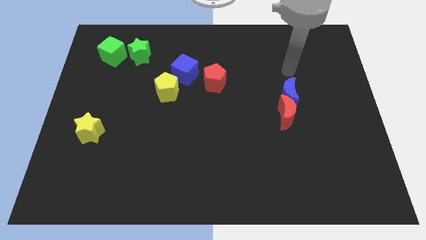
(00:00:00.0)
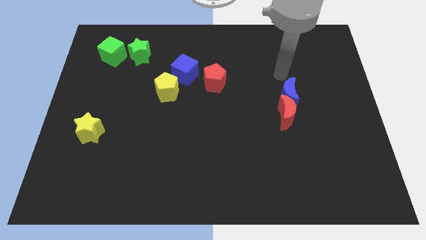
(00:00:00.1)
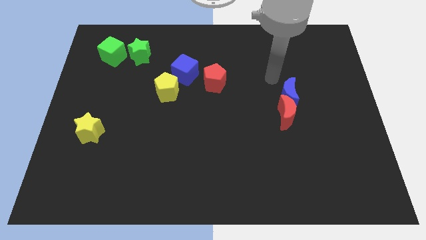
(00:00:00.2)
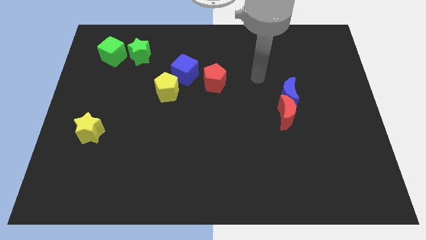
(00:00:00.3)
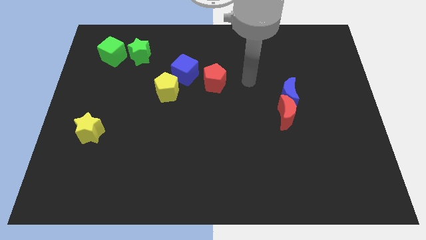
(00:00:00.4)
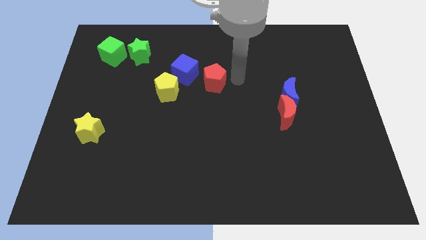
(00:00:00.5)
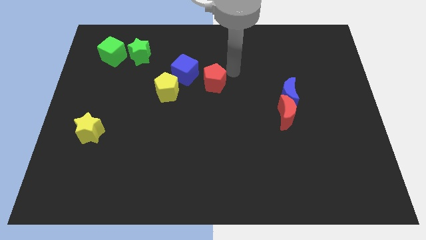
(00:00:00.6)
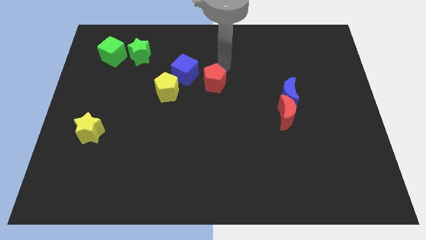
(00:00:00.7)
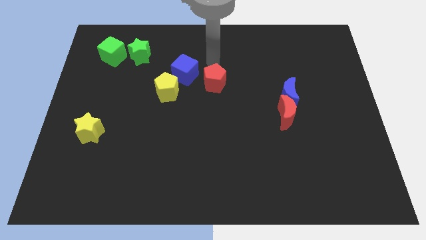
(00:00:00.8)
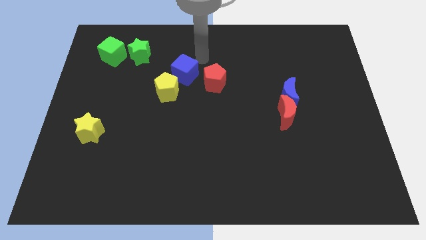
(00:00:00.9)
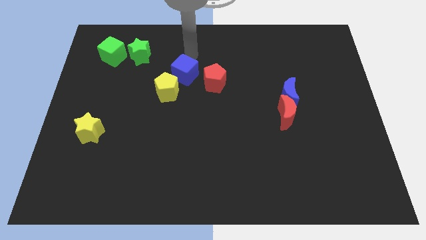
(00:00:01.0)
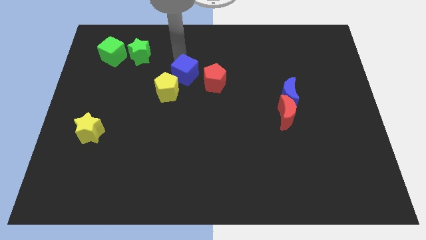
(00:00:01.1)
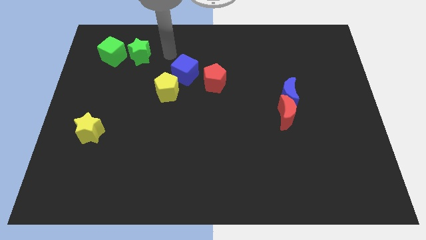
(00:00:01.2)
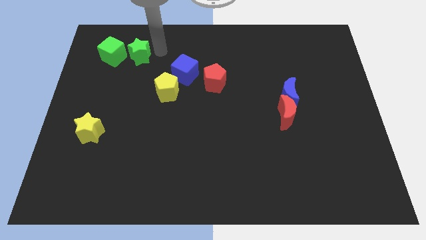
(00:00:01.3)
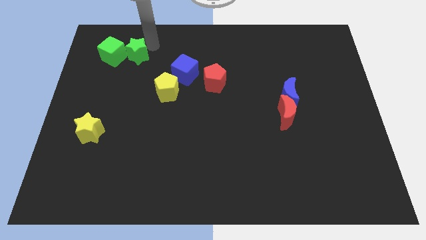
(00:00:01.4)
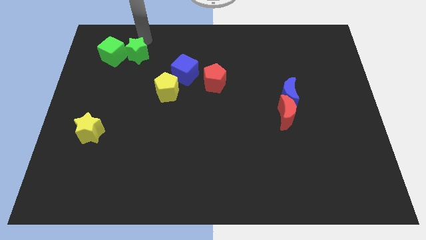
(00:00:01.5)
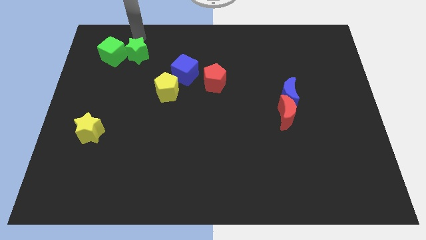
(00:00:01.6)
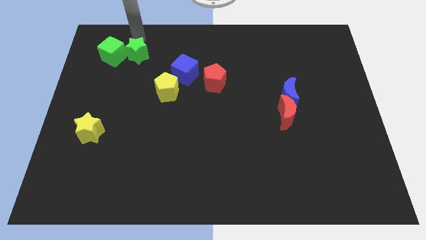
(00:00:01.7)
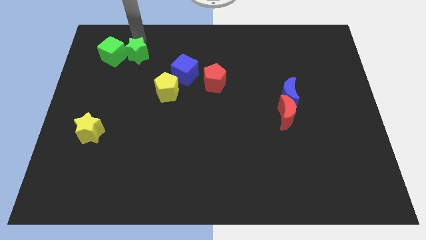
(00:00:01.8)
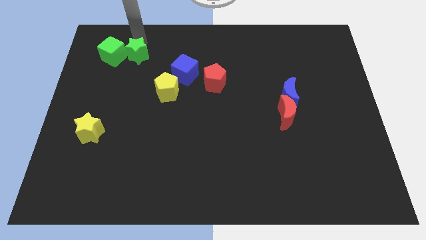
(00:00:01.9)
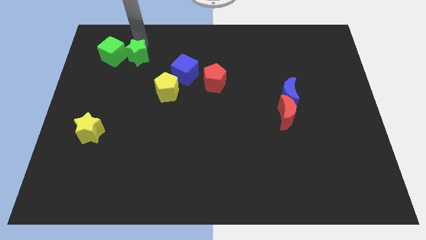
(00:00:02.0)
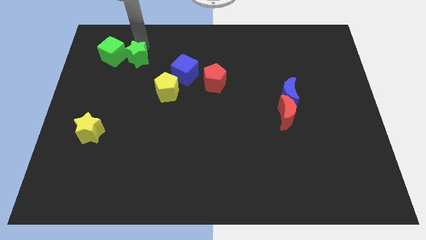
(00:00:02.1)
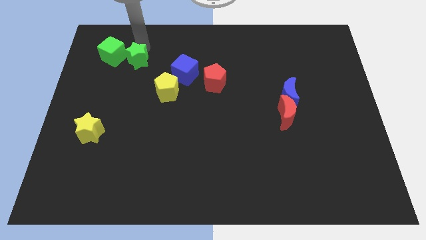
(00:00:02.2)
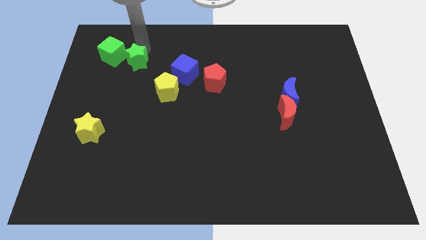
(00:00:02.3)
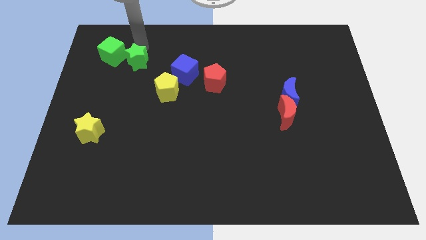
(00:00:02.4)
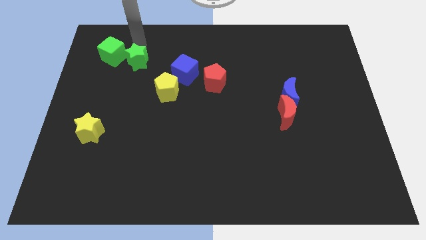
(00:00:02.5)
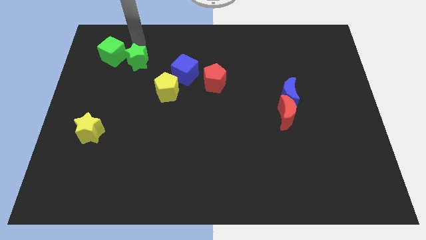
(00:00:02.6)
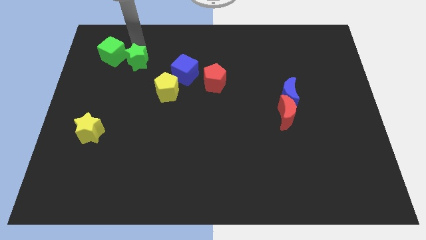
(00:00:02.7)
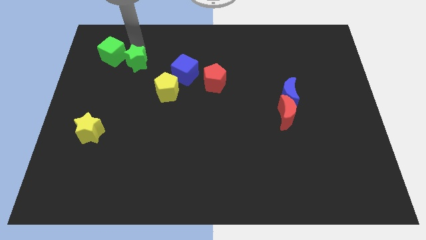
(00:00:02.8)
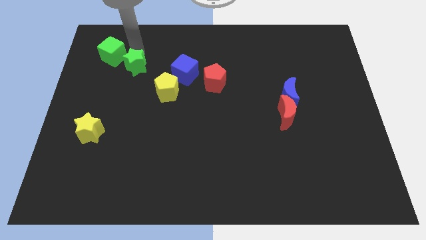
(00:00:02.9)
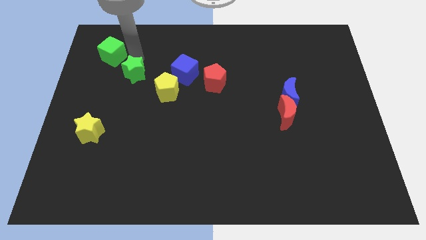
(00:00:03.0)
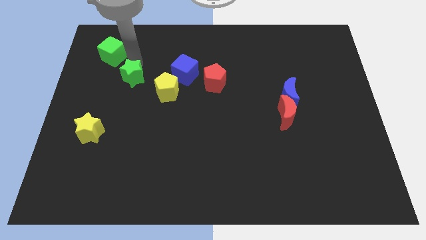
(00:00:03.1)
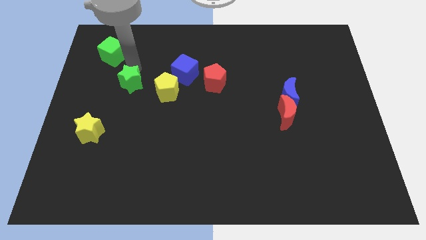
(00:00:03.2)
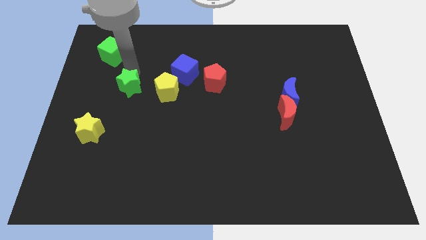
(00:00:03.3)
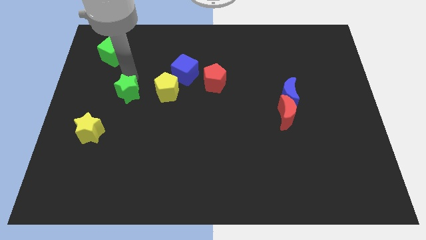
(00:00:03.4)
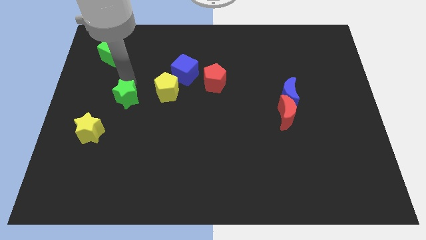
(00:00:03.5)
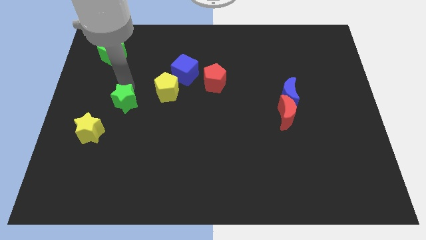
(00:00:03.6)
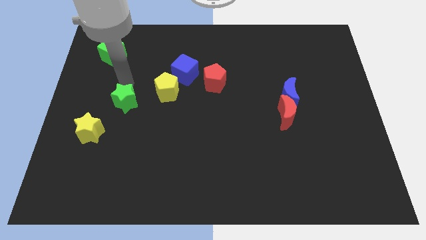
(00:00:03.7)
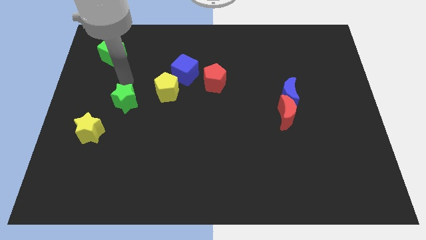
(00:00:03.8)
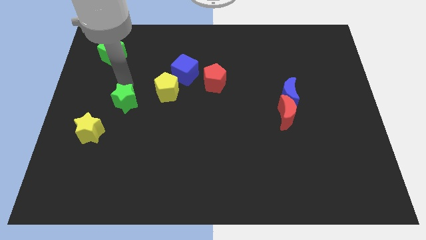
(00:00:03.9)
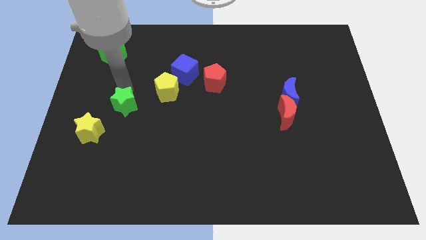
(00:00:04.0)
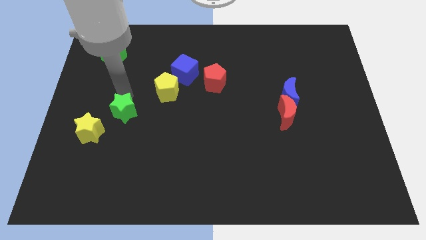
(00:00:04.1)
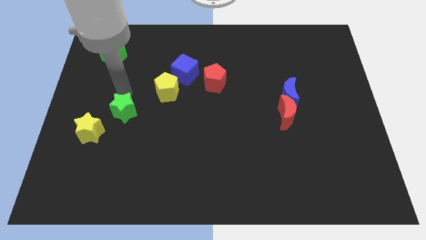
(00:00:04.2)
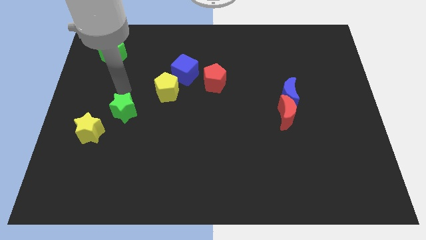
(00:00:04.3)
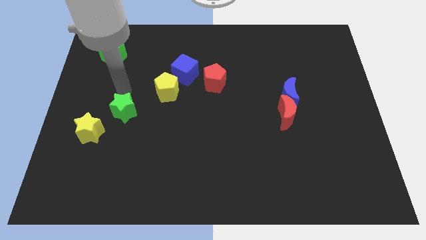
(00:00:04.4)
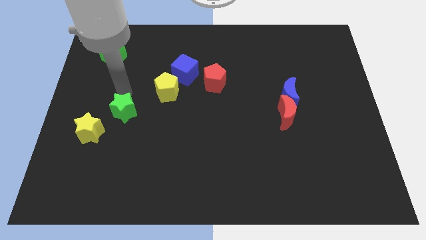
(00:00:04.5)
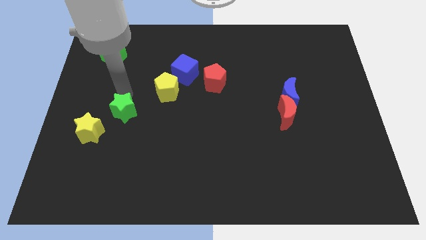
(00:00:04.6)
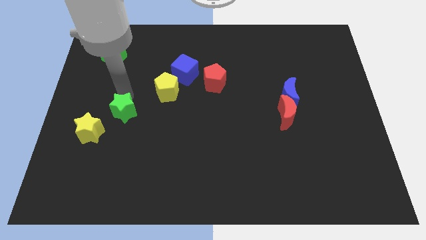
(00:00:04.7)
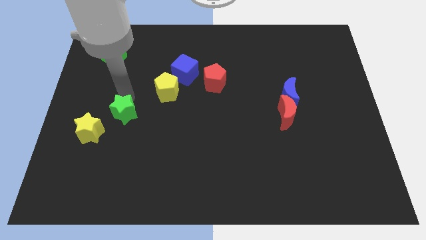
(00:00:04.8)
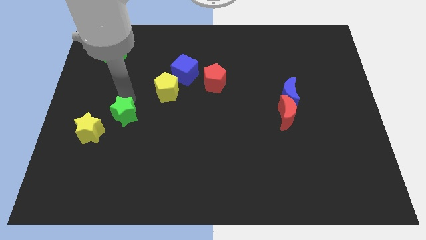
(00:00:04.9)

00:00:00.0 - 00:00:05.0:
slide the green star down

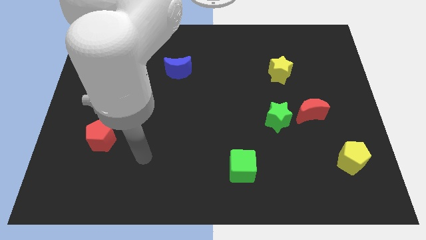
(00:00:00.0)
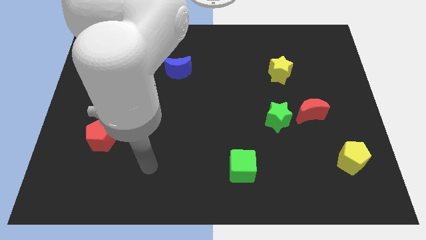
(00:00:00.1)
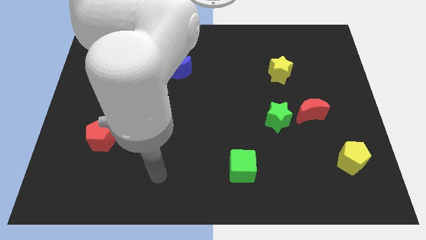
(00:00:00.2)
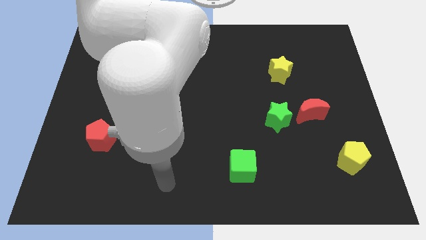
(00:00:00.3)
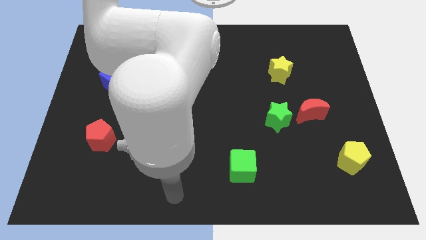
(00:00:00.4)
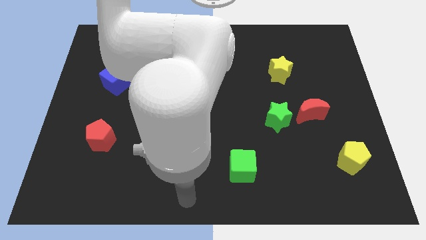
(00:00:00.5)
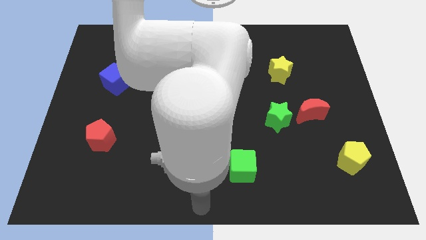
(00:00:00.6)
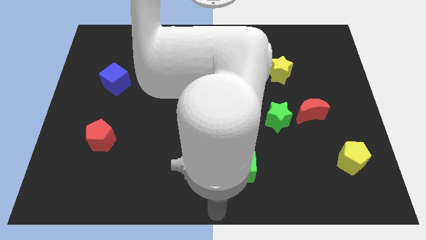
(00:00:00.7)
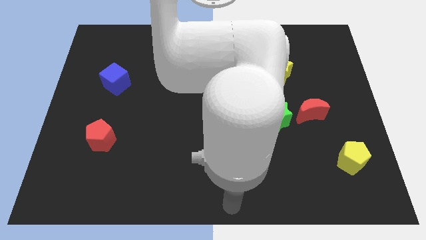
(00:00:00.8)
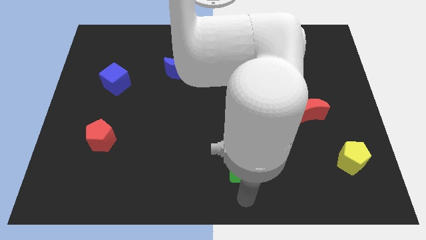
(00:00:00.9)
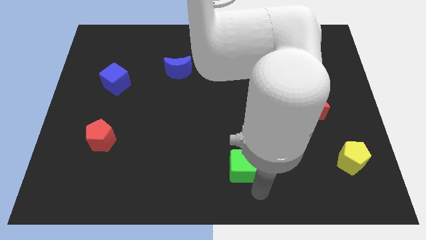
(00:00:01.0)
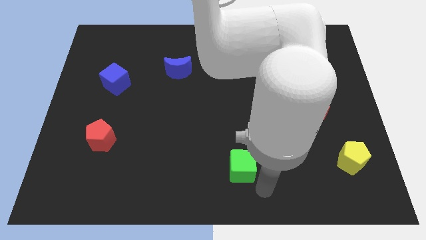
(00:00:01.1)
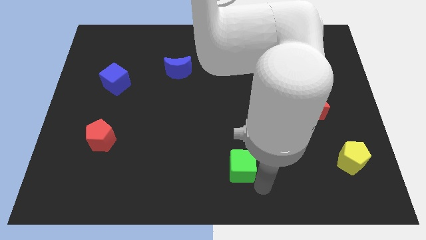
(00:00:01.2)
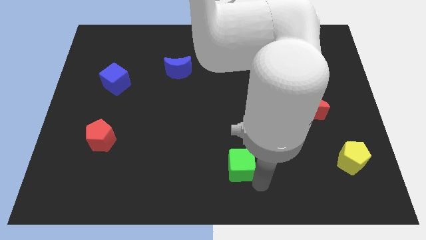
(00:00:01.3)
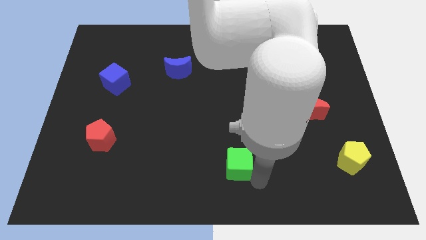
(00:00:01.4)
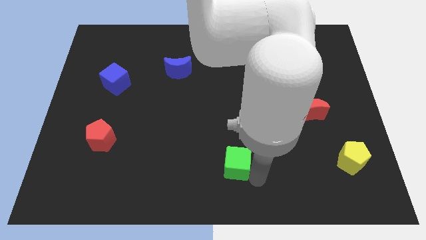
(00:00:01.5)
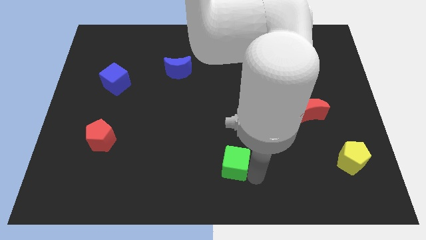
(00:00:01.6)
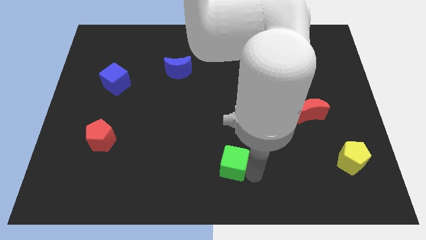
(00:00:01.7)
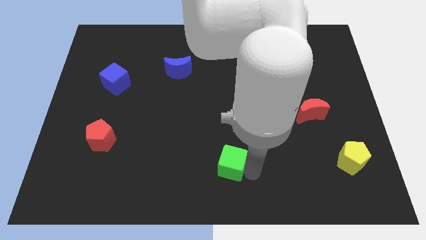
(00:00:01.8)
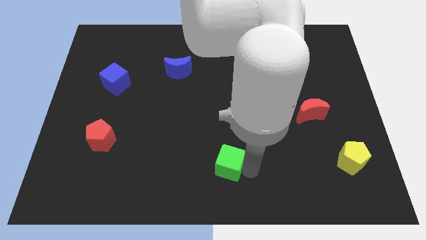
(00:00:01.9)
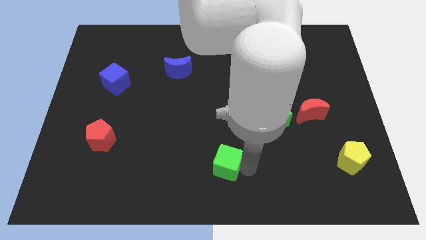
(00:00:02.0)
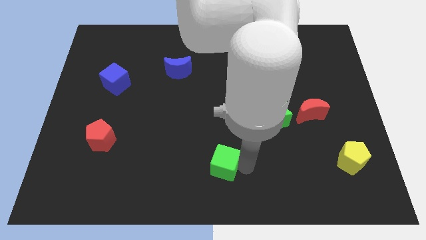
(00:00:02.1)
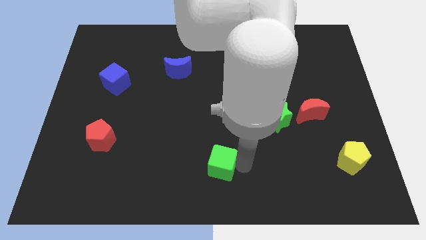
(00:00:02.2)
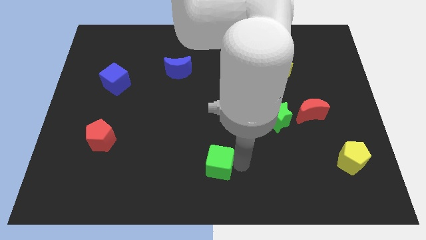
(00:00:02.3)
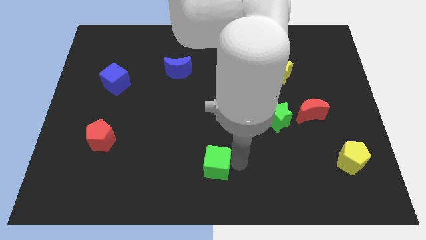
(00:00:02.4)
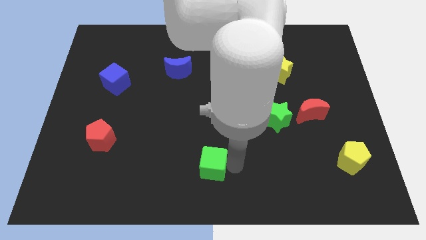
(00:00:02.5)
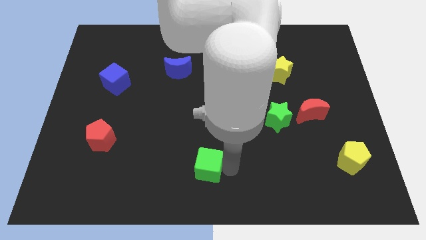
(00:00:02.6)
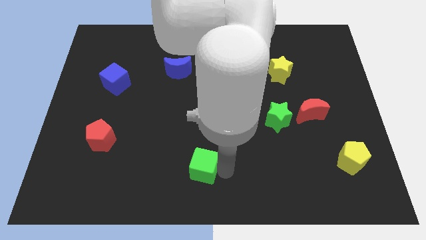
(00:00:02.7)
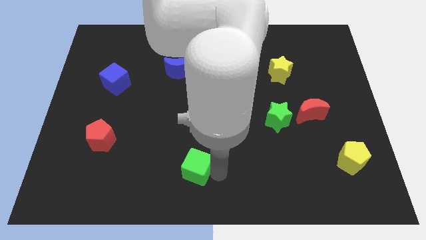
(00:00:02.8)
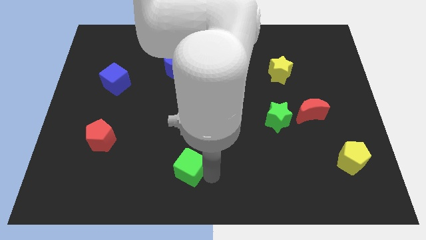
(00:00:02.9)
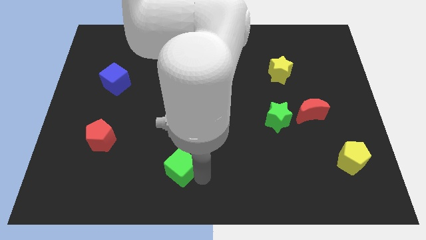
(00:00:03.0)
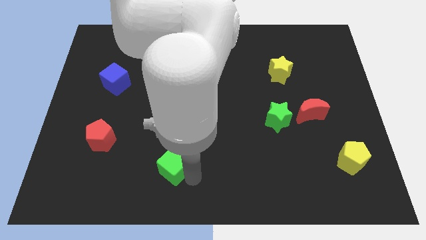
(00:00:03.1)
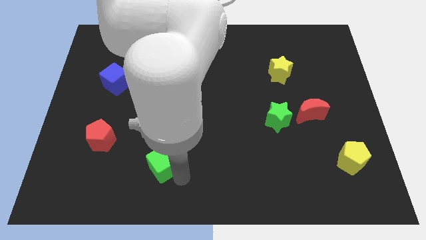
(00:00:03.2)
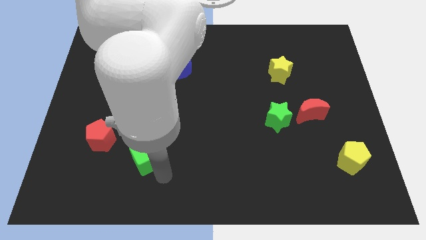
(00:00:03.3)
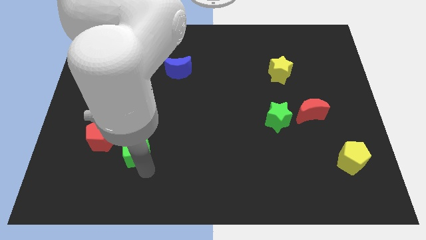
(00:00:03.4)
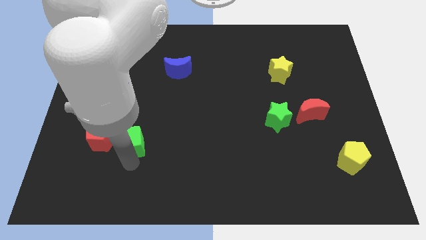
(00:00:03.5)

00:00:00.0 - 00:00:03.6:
move the green cube up and then left a little
